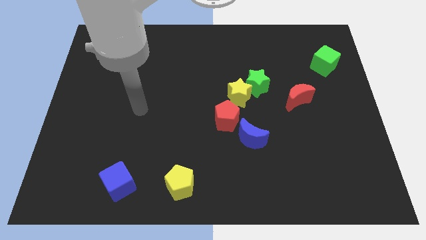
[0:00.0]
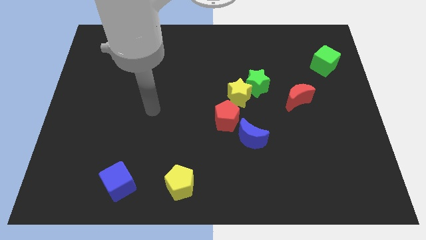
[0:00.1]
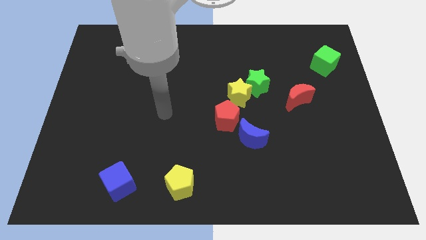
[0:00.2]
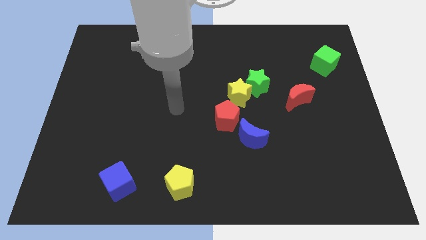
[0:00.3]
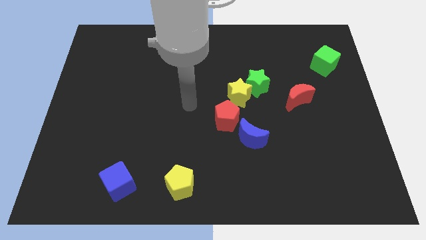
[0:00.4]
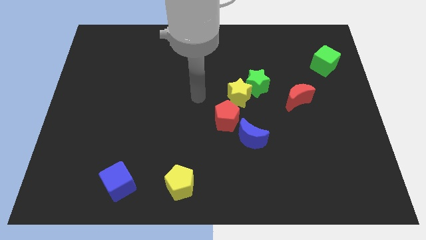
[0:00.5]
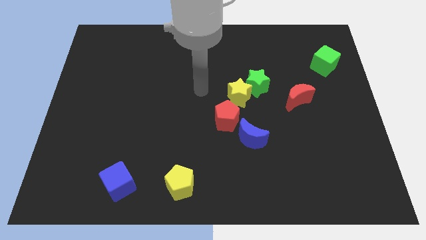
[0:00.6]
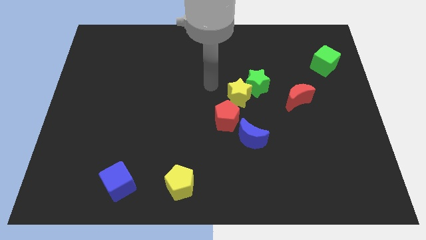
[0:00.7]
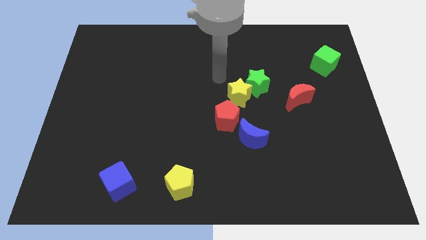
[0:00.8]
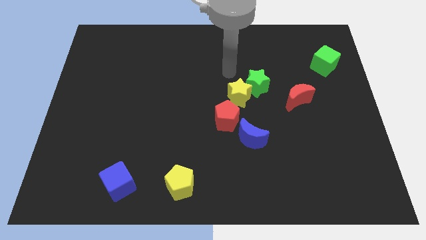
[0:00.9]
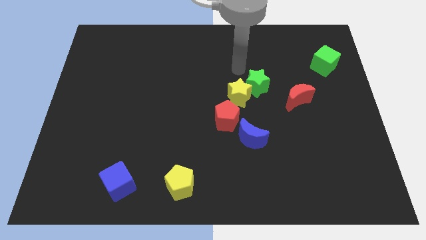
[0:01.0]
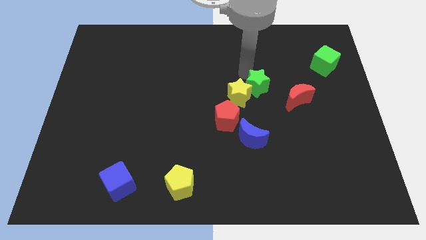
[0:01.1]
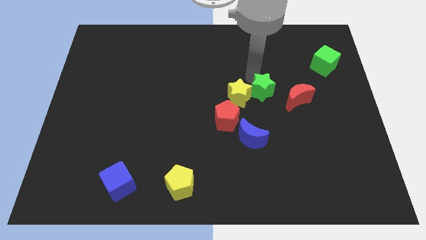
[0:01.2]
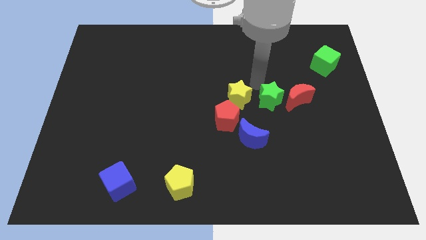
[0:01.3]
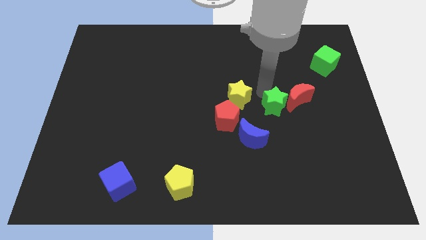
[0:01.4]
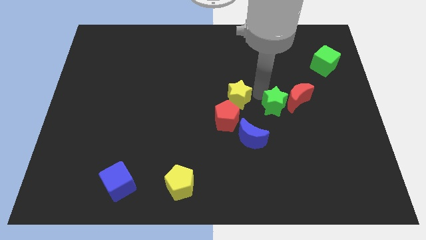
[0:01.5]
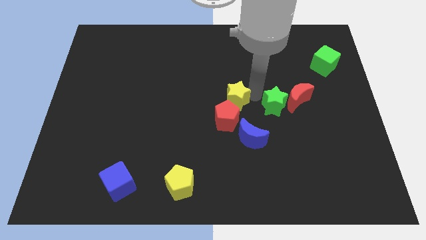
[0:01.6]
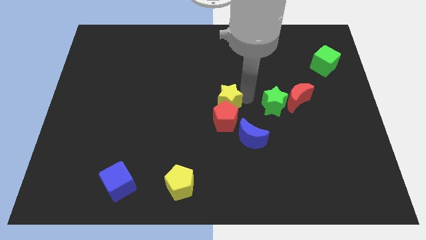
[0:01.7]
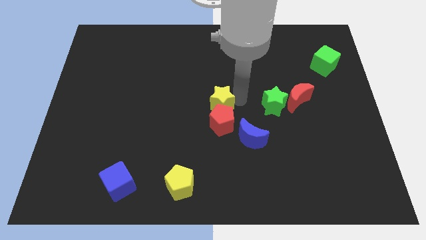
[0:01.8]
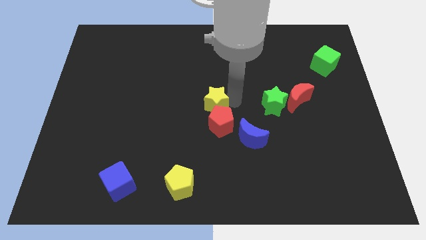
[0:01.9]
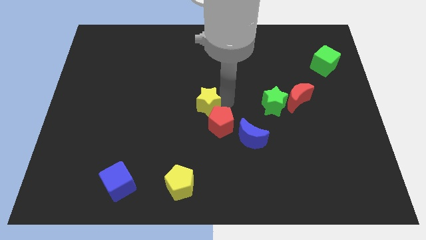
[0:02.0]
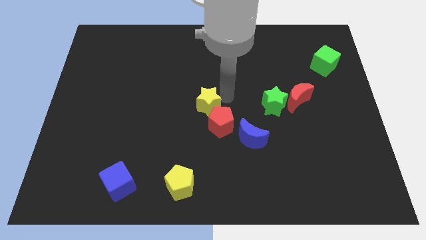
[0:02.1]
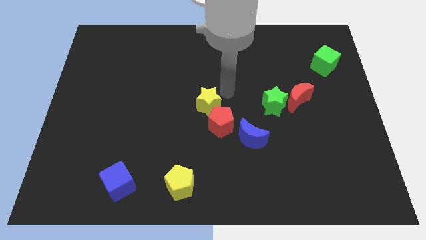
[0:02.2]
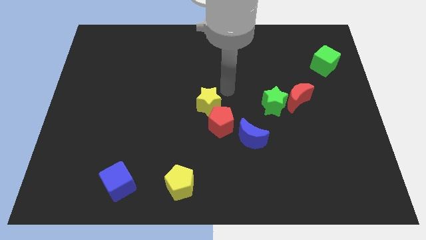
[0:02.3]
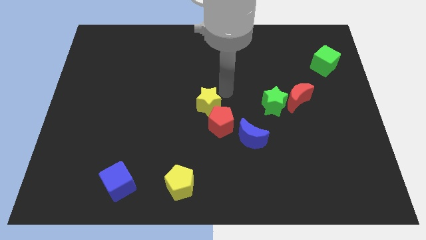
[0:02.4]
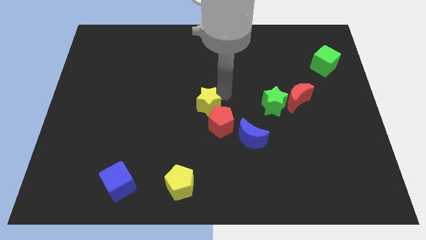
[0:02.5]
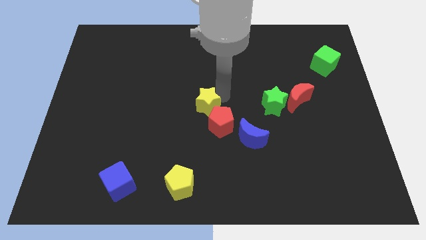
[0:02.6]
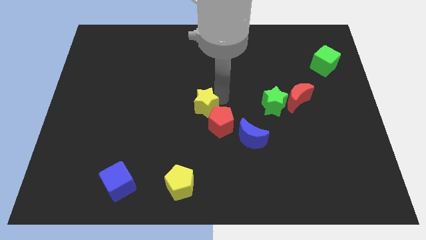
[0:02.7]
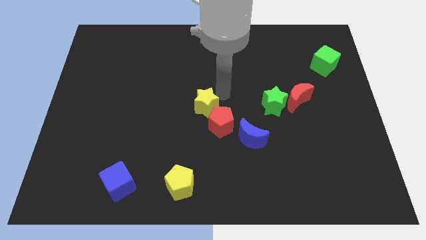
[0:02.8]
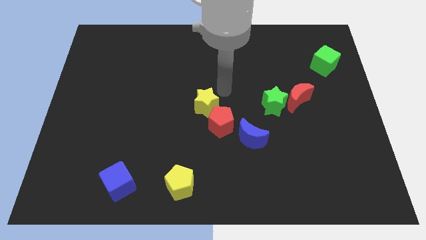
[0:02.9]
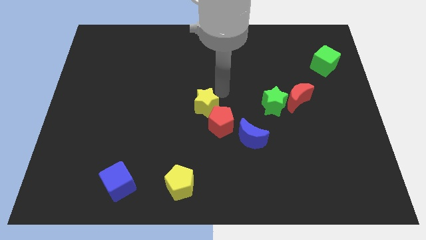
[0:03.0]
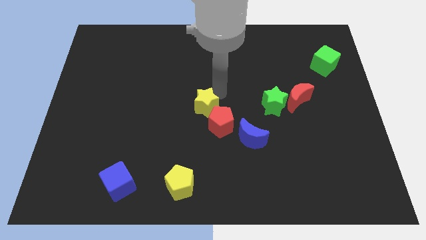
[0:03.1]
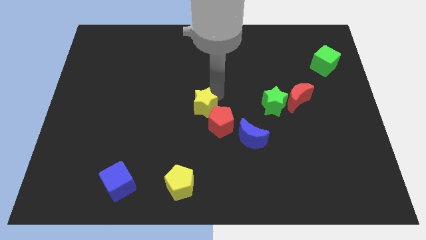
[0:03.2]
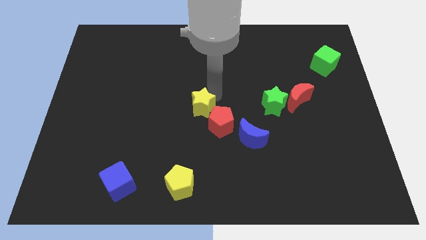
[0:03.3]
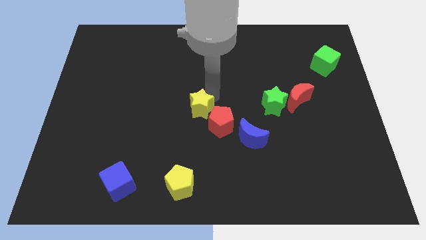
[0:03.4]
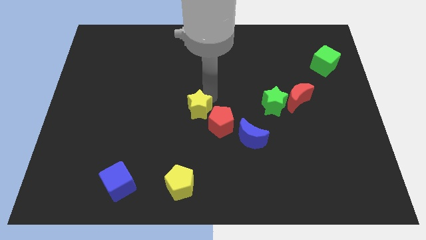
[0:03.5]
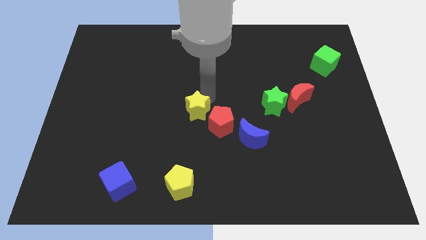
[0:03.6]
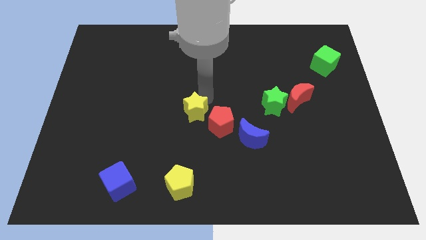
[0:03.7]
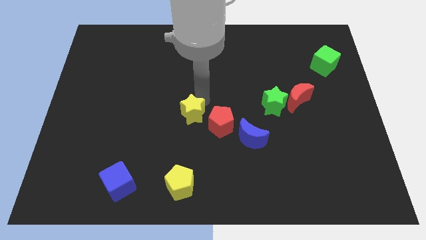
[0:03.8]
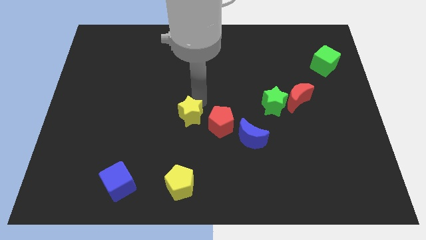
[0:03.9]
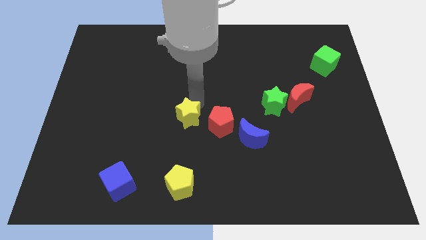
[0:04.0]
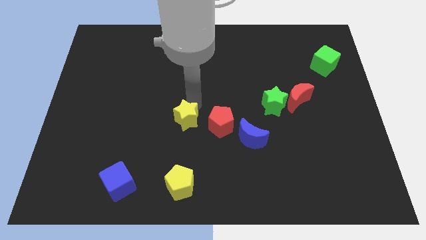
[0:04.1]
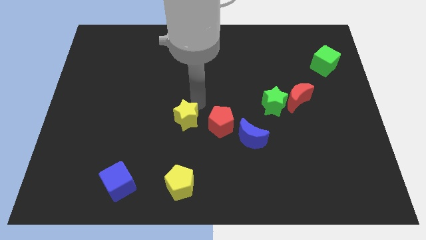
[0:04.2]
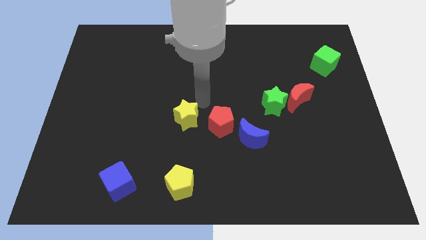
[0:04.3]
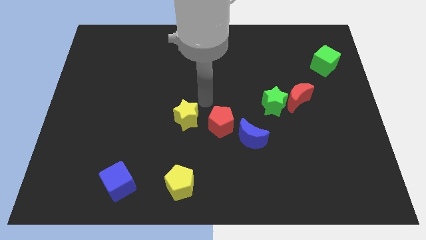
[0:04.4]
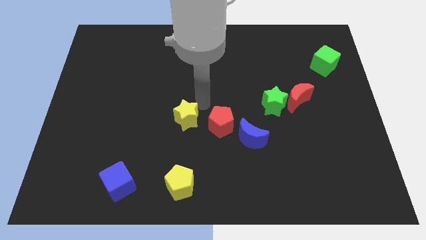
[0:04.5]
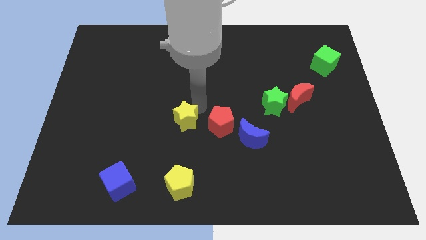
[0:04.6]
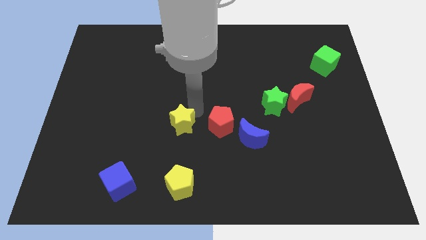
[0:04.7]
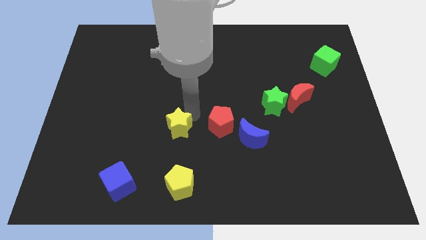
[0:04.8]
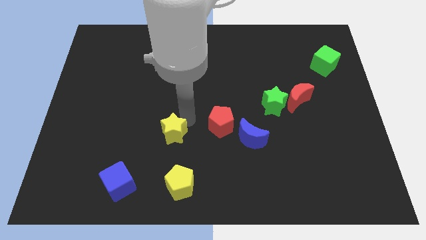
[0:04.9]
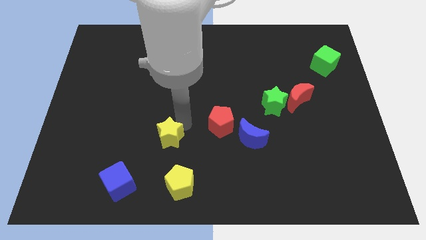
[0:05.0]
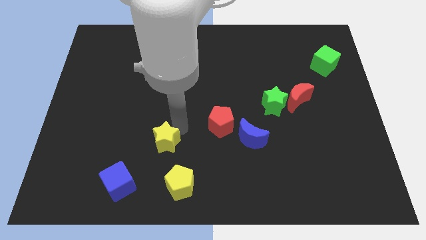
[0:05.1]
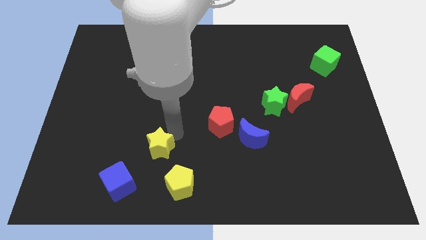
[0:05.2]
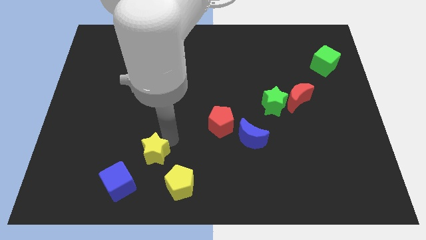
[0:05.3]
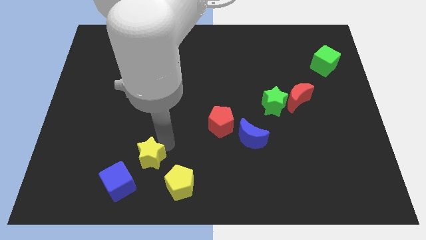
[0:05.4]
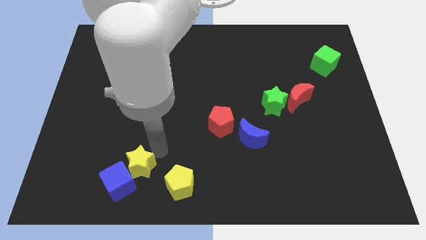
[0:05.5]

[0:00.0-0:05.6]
push the yellow star close to the blue cube

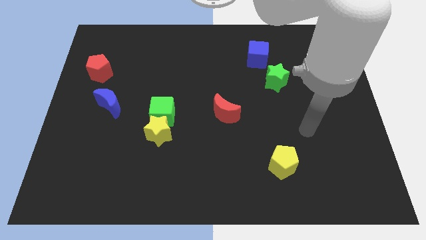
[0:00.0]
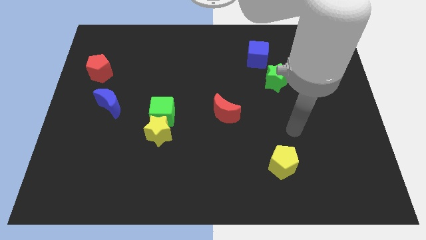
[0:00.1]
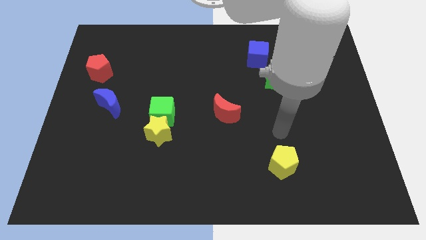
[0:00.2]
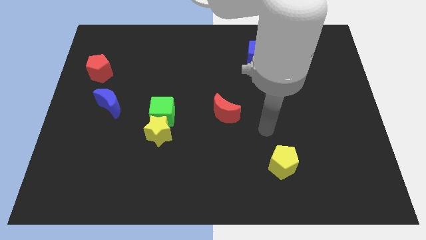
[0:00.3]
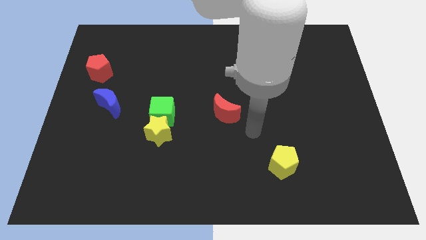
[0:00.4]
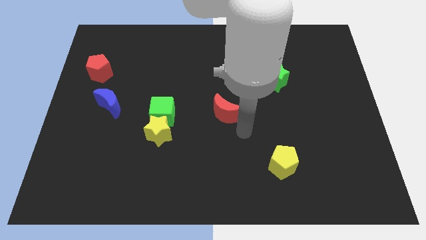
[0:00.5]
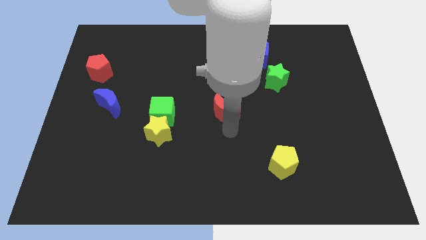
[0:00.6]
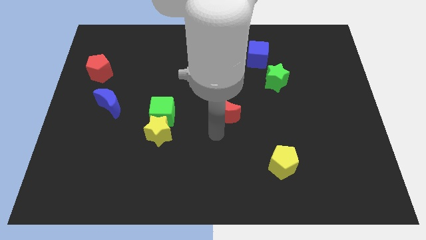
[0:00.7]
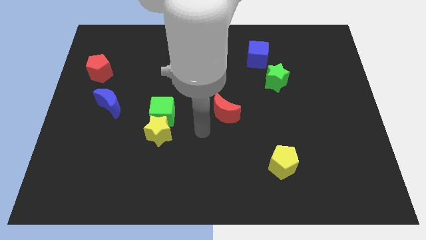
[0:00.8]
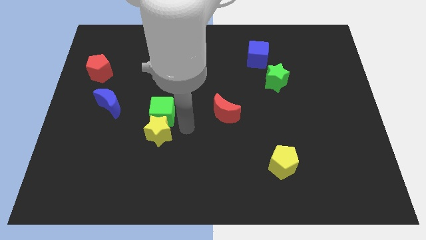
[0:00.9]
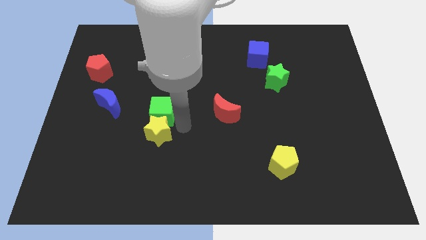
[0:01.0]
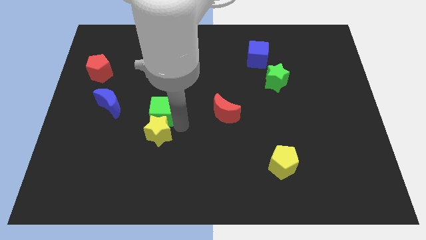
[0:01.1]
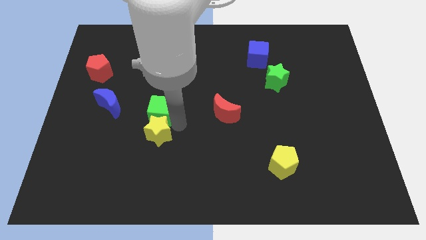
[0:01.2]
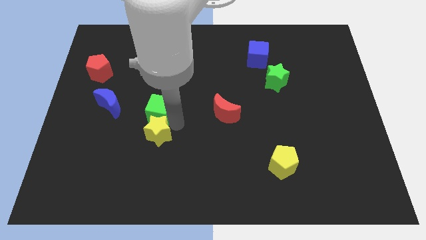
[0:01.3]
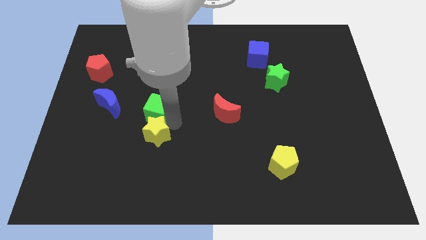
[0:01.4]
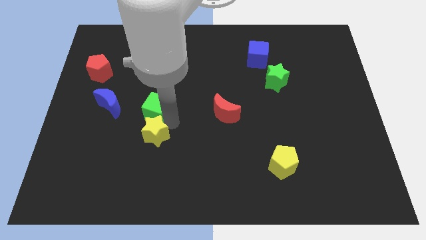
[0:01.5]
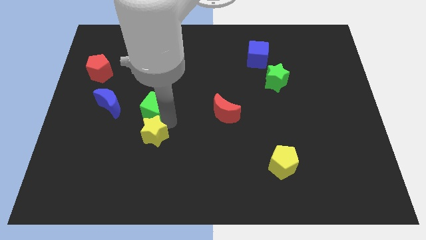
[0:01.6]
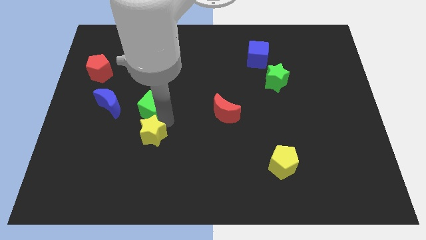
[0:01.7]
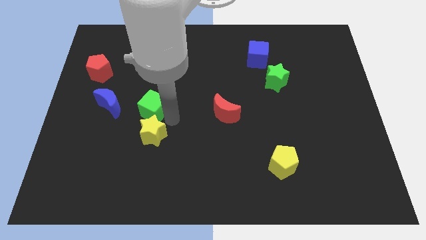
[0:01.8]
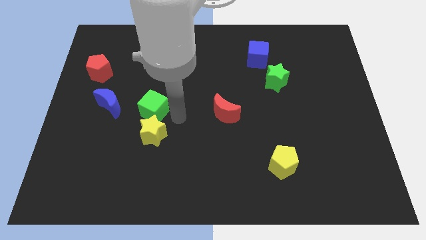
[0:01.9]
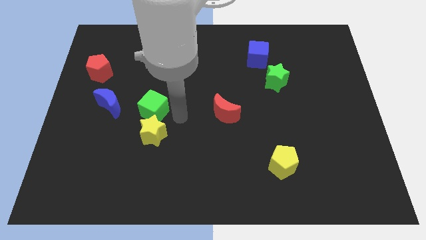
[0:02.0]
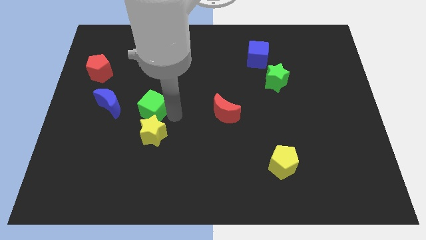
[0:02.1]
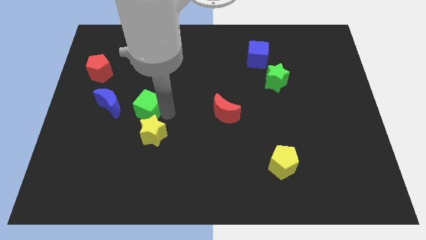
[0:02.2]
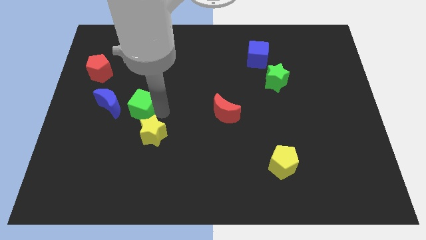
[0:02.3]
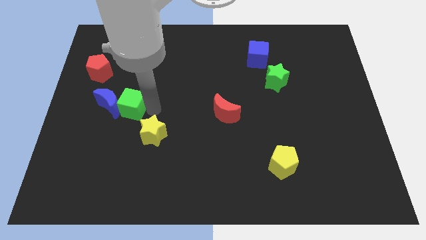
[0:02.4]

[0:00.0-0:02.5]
push the green cube to the blue moon
